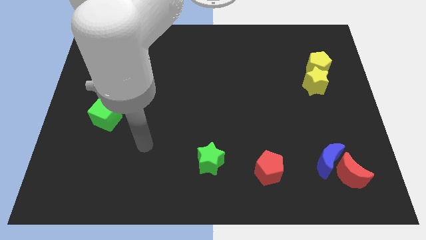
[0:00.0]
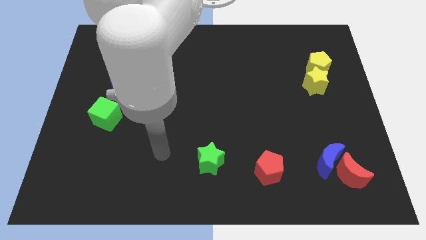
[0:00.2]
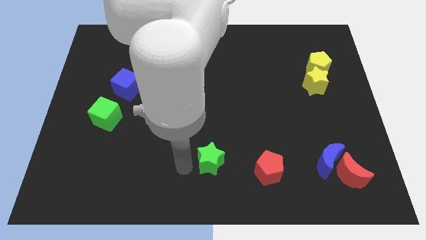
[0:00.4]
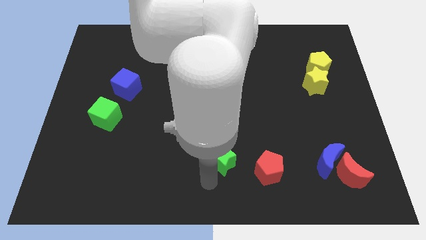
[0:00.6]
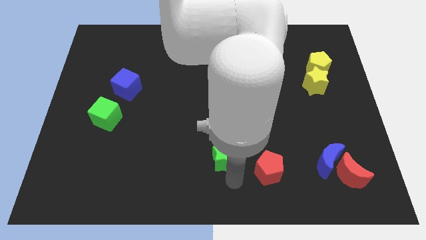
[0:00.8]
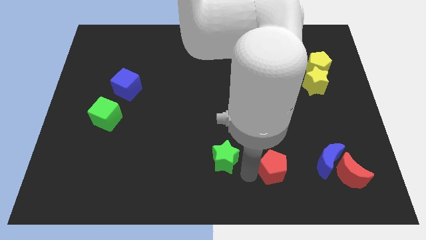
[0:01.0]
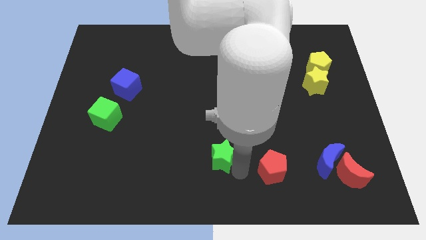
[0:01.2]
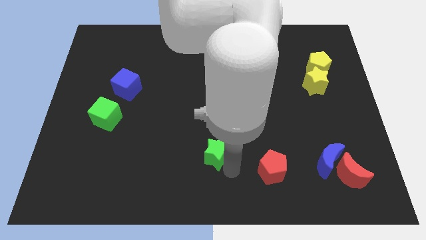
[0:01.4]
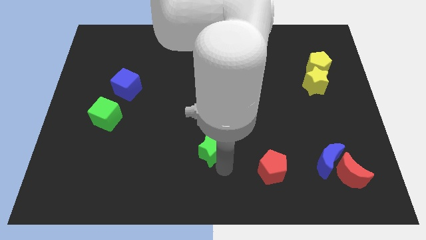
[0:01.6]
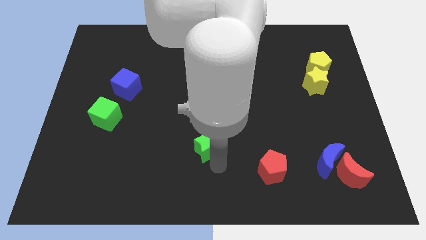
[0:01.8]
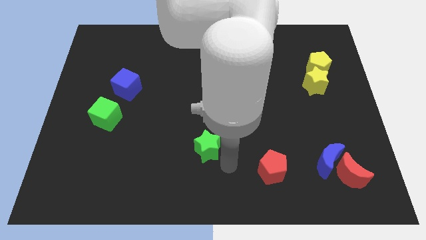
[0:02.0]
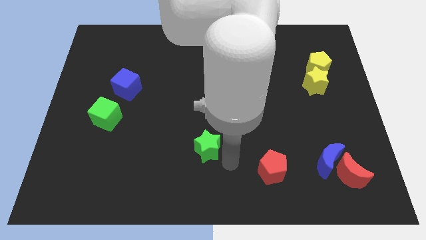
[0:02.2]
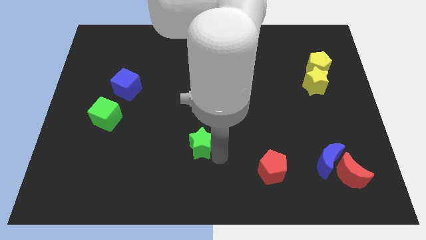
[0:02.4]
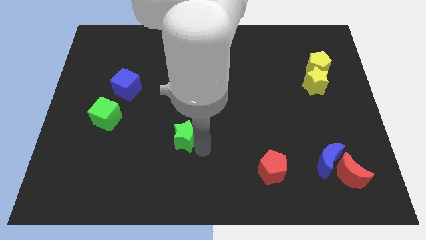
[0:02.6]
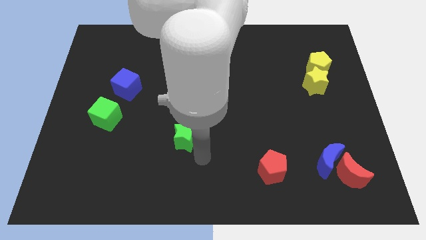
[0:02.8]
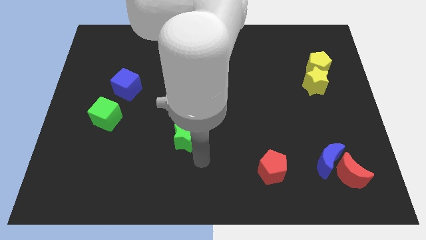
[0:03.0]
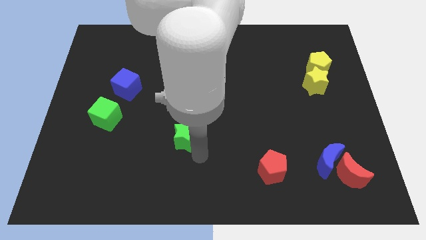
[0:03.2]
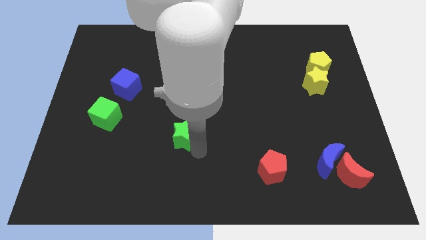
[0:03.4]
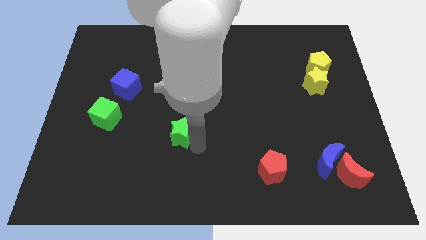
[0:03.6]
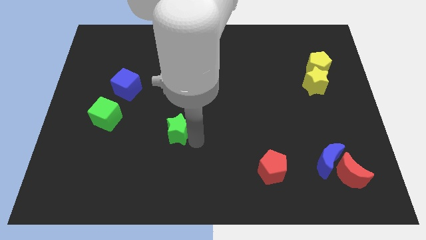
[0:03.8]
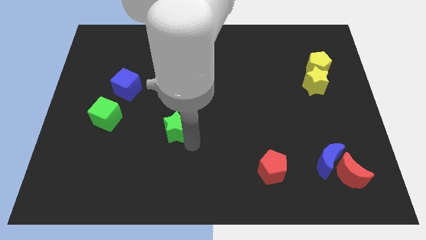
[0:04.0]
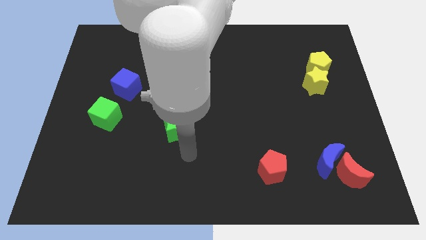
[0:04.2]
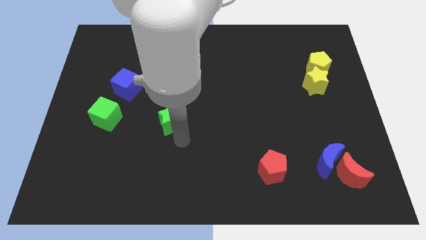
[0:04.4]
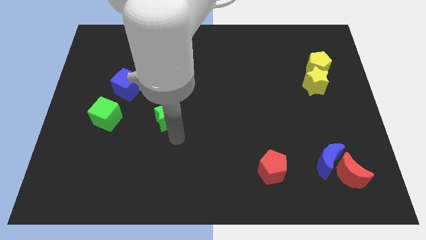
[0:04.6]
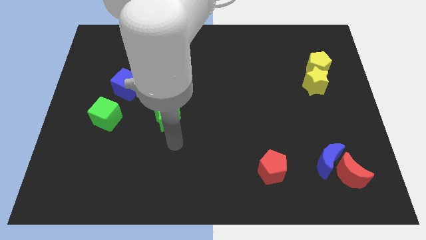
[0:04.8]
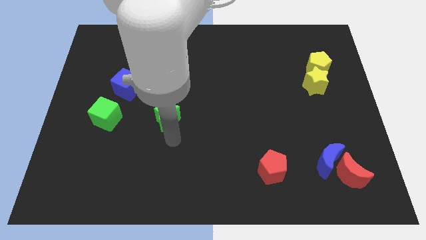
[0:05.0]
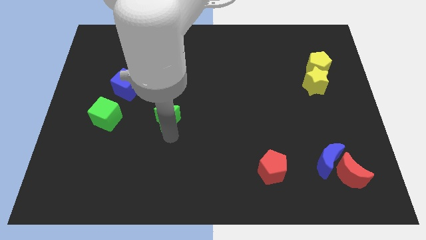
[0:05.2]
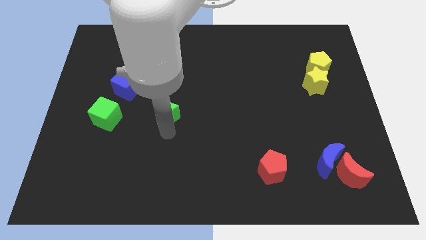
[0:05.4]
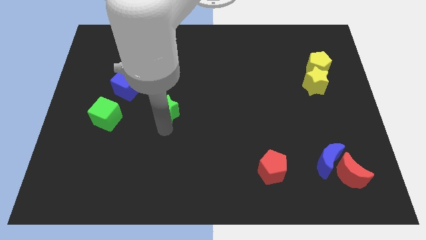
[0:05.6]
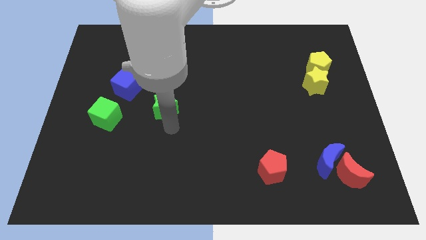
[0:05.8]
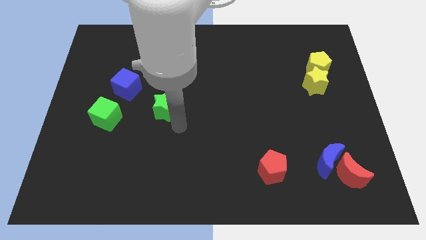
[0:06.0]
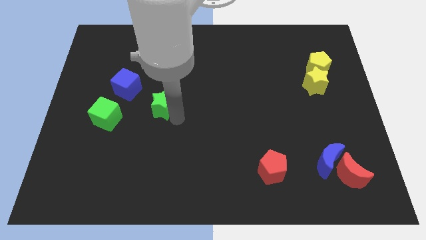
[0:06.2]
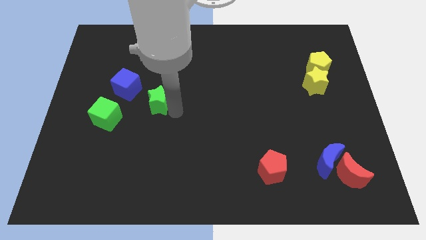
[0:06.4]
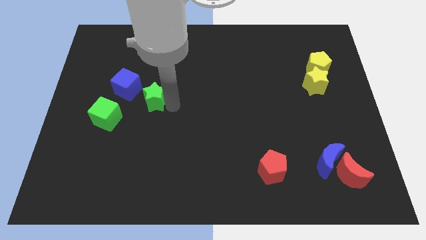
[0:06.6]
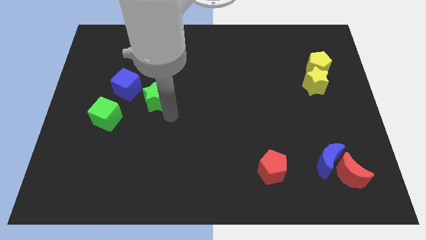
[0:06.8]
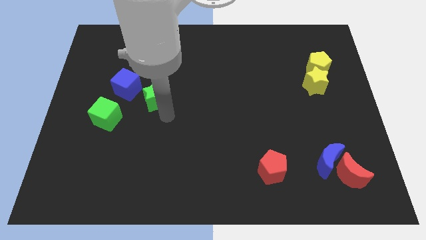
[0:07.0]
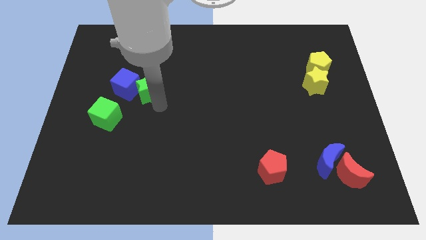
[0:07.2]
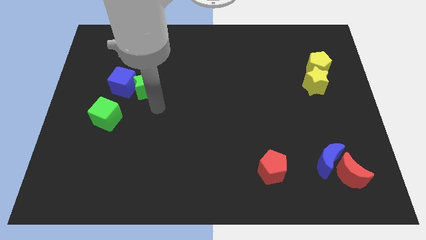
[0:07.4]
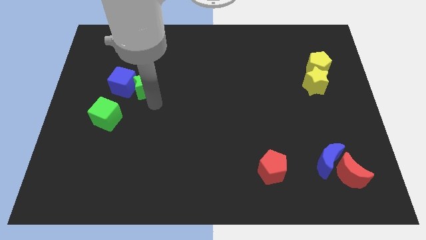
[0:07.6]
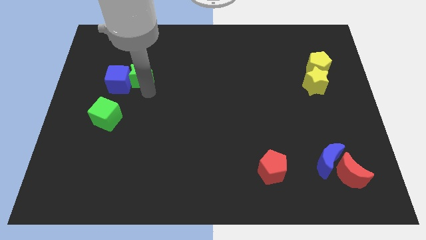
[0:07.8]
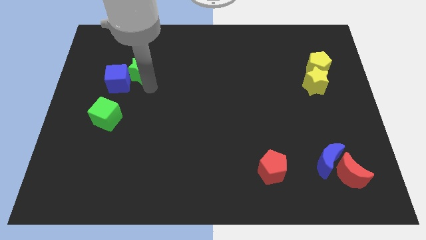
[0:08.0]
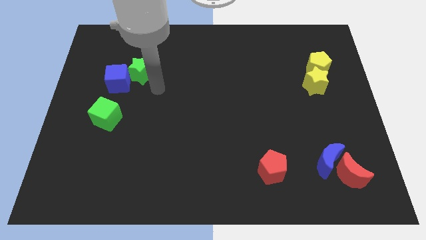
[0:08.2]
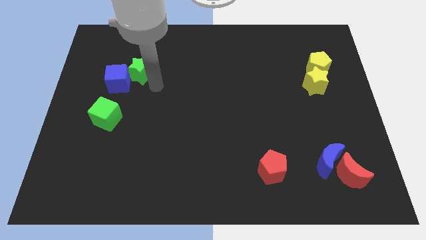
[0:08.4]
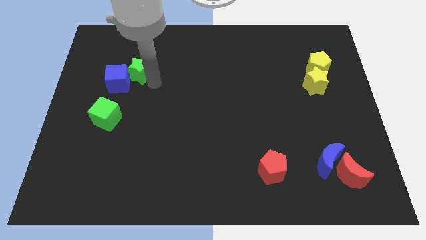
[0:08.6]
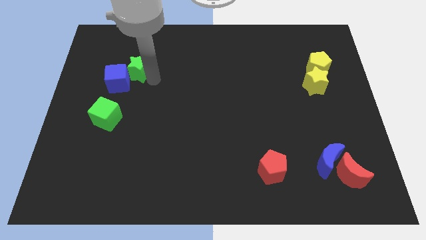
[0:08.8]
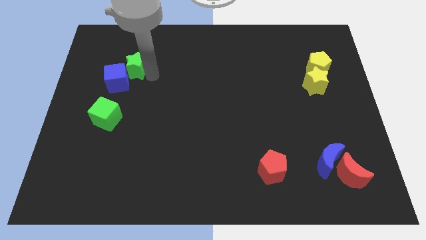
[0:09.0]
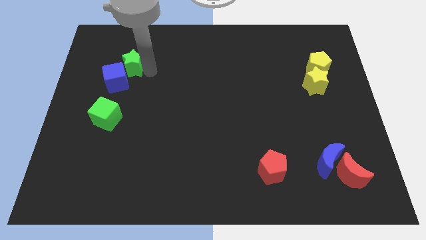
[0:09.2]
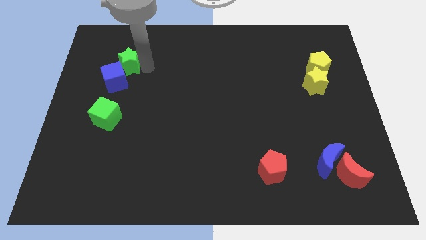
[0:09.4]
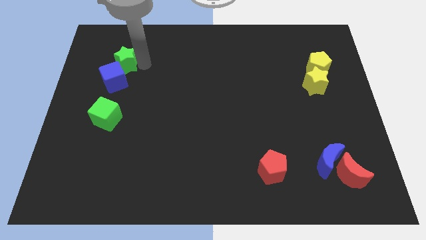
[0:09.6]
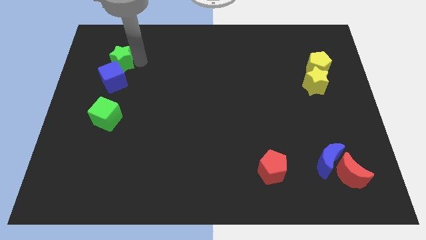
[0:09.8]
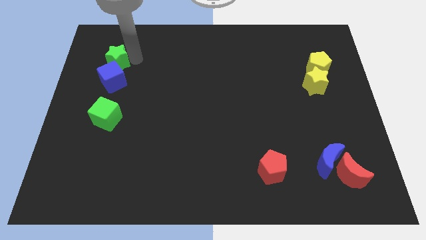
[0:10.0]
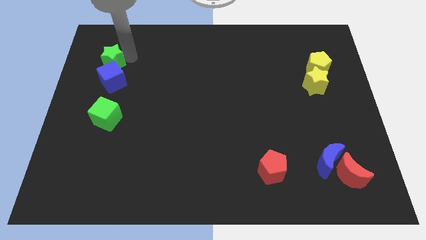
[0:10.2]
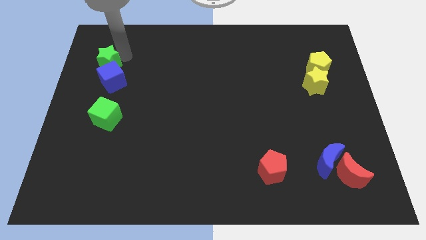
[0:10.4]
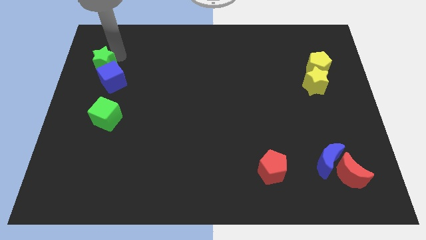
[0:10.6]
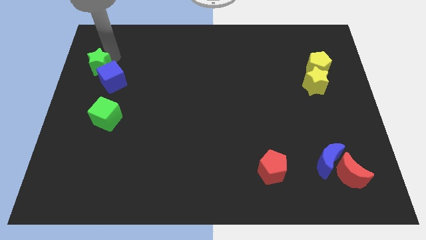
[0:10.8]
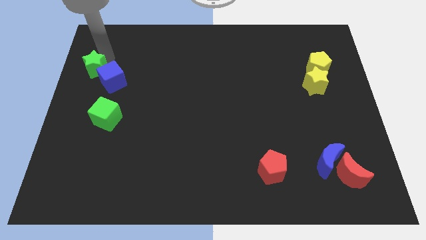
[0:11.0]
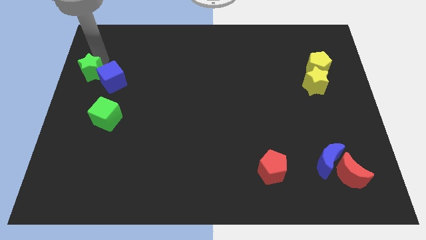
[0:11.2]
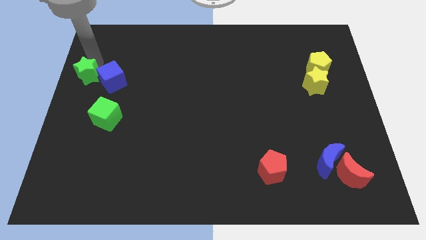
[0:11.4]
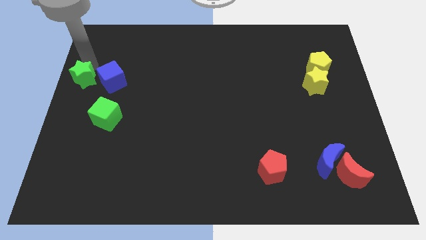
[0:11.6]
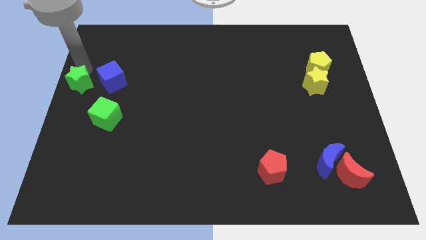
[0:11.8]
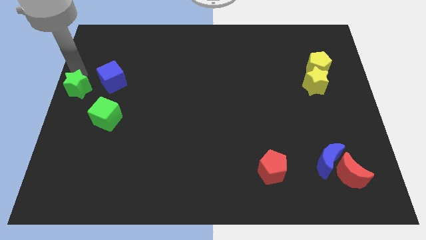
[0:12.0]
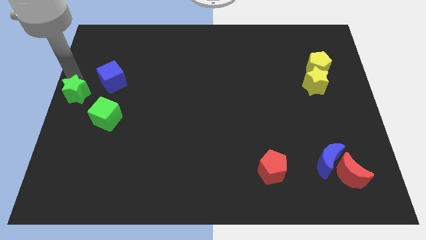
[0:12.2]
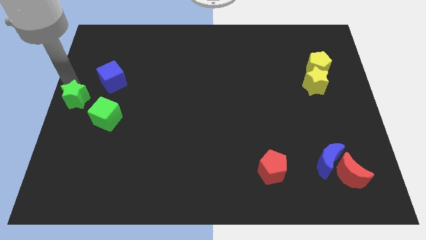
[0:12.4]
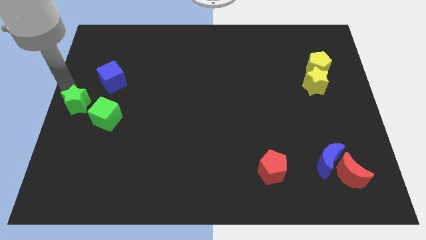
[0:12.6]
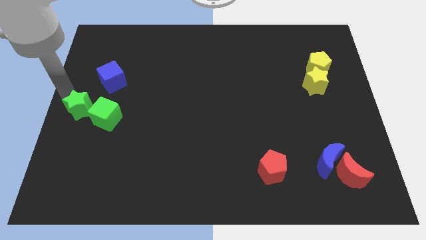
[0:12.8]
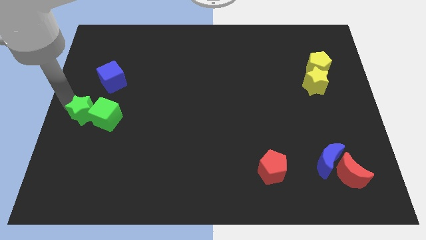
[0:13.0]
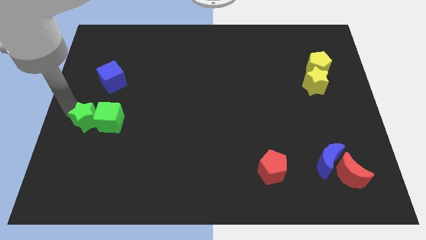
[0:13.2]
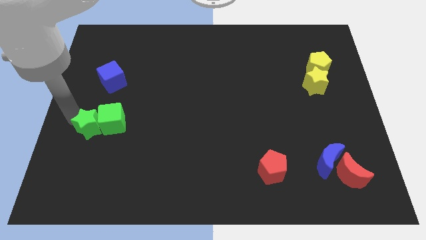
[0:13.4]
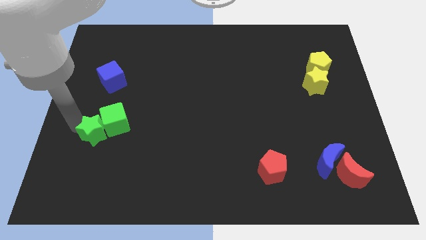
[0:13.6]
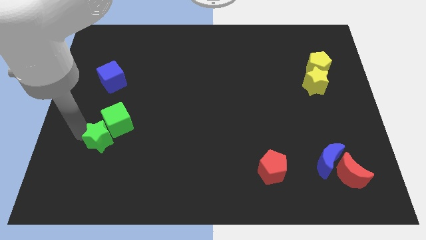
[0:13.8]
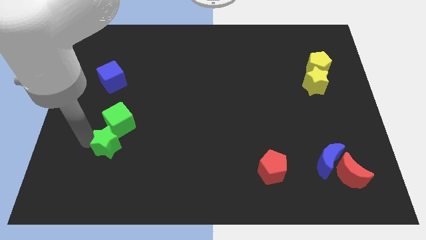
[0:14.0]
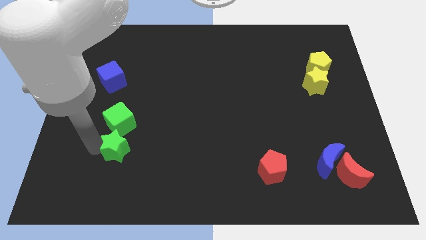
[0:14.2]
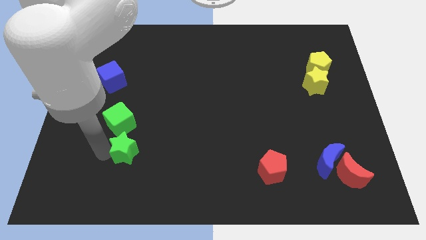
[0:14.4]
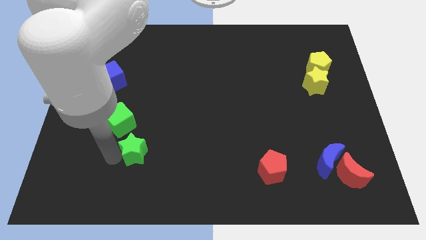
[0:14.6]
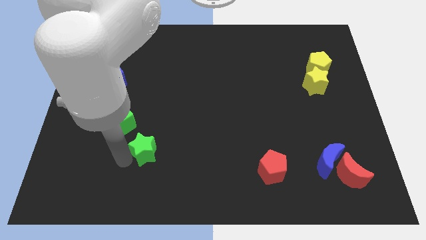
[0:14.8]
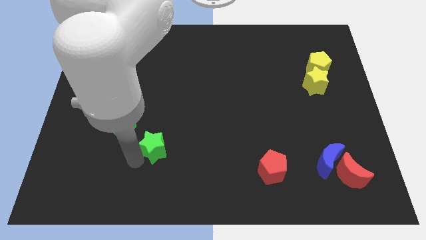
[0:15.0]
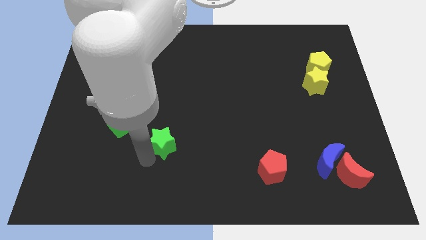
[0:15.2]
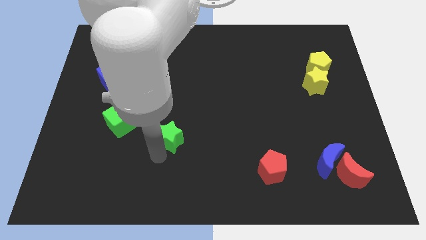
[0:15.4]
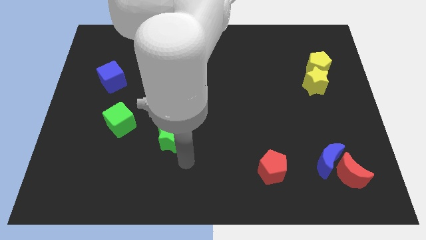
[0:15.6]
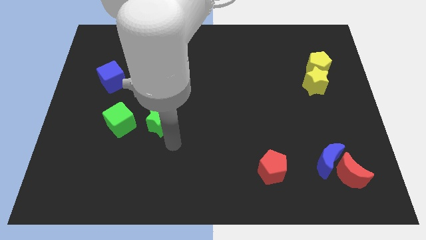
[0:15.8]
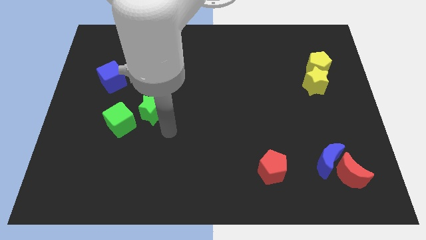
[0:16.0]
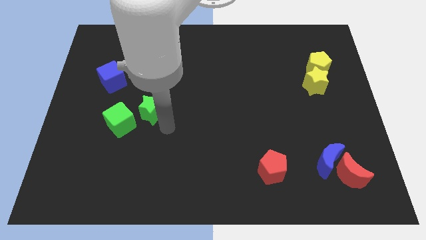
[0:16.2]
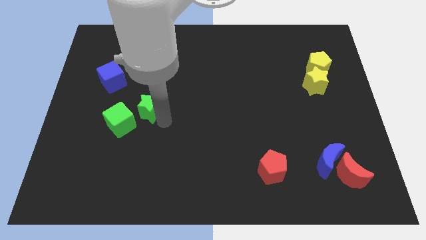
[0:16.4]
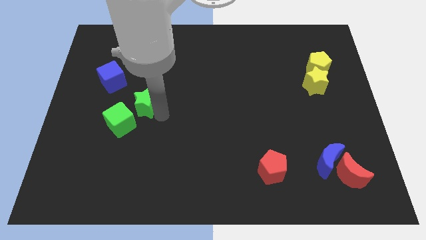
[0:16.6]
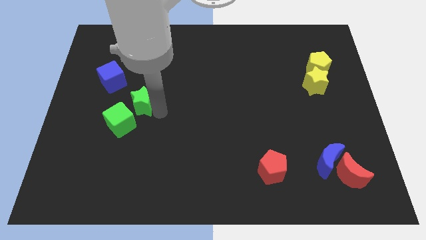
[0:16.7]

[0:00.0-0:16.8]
slide the green star above the green cube
